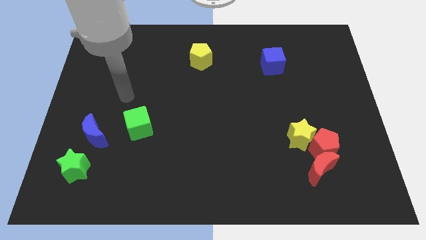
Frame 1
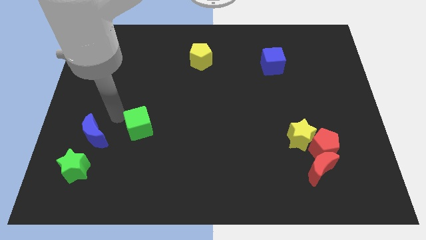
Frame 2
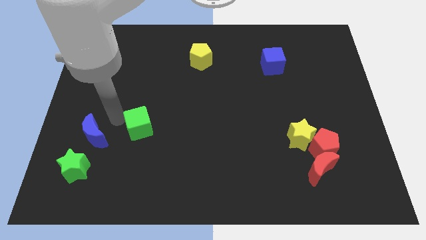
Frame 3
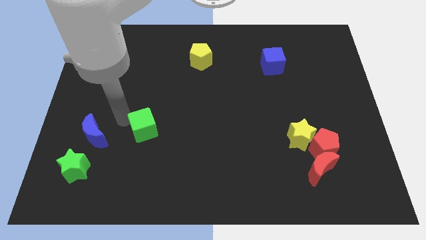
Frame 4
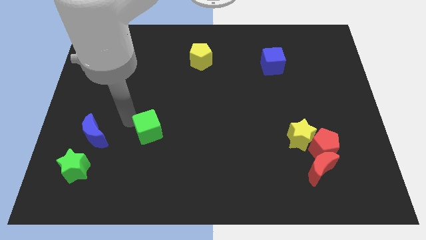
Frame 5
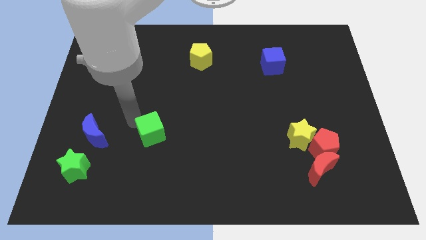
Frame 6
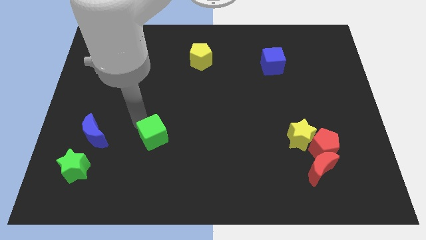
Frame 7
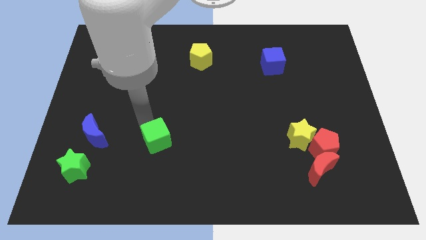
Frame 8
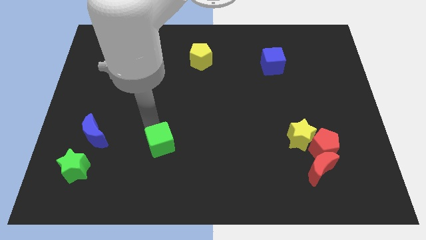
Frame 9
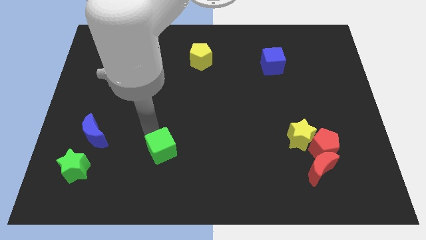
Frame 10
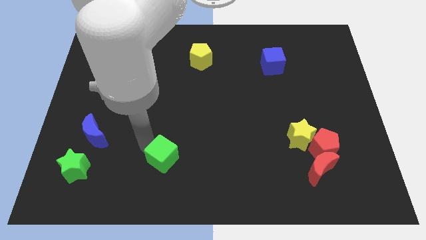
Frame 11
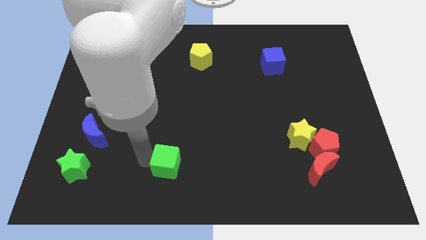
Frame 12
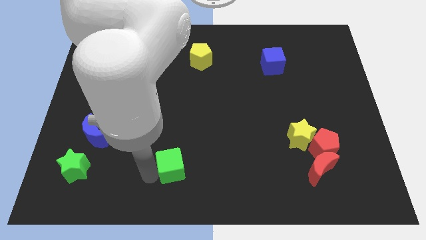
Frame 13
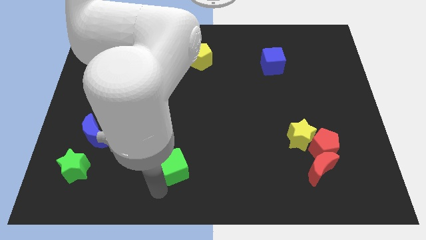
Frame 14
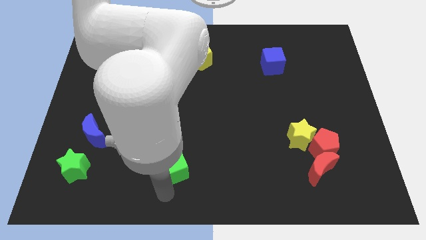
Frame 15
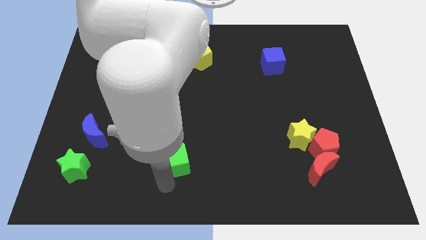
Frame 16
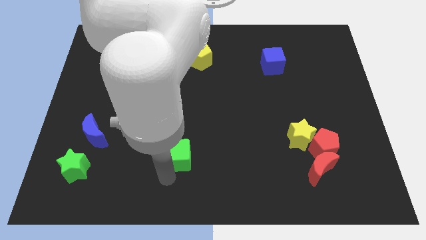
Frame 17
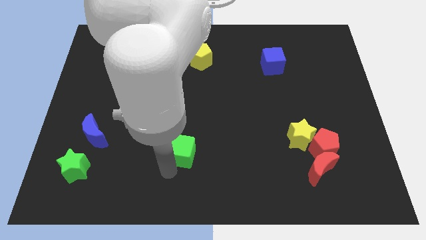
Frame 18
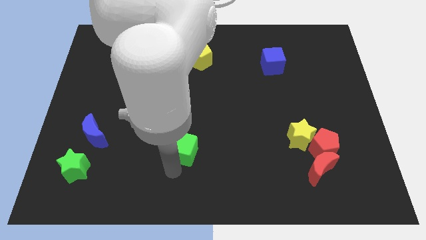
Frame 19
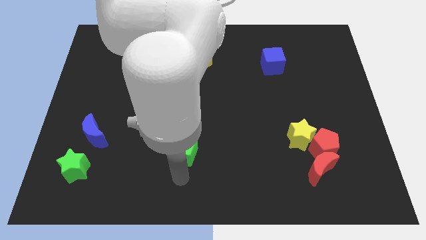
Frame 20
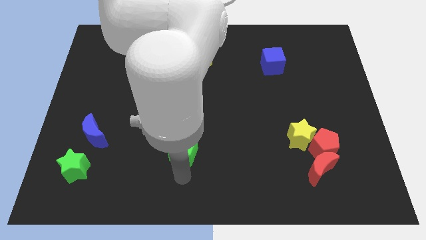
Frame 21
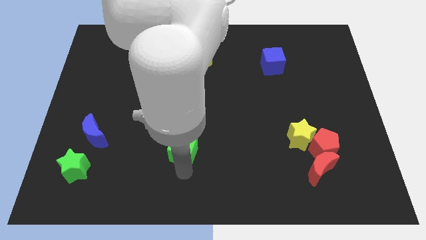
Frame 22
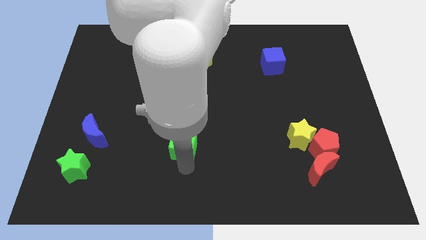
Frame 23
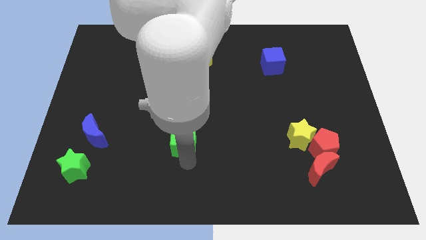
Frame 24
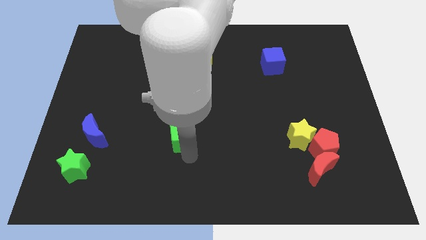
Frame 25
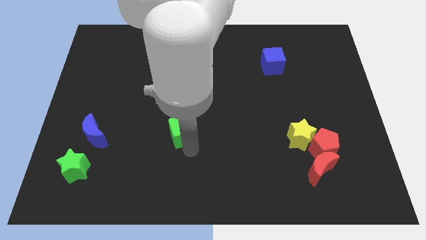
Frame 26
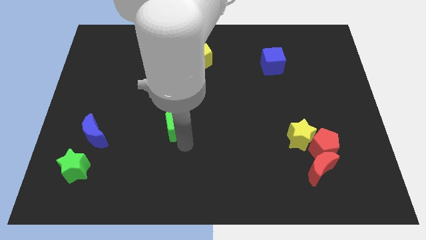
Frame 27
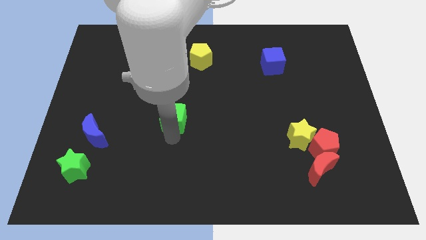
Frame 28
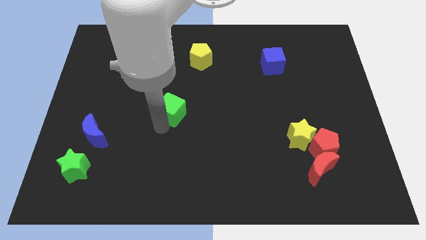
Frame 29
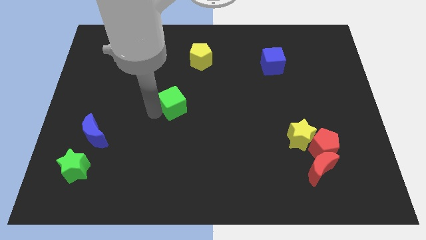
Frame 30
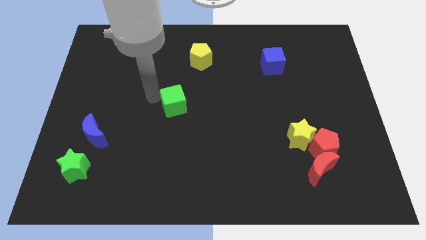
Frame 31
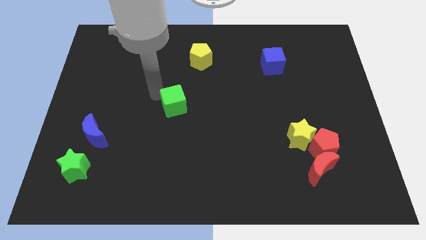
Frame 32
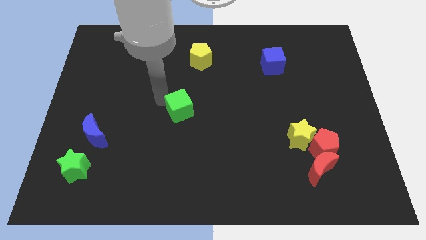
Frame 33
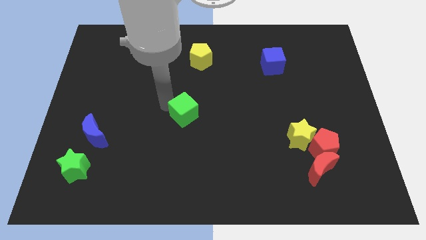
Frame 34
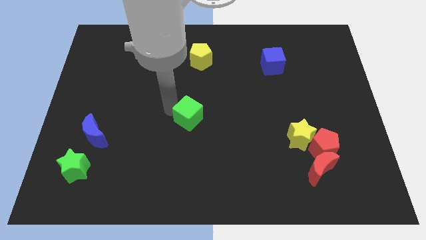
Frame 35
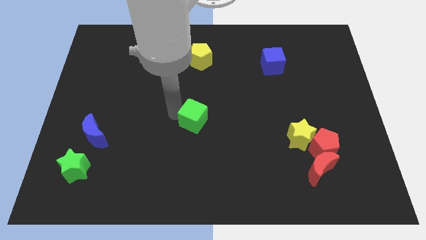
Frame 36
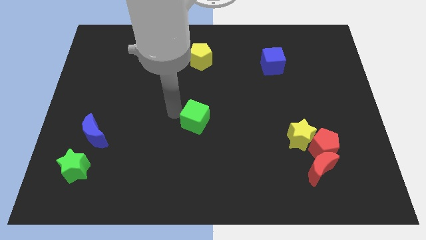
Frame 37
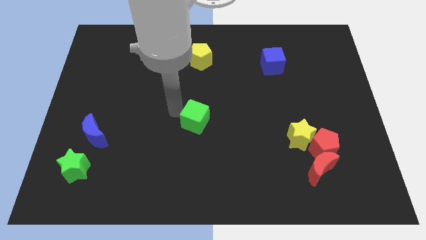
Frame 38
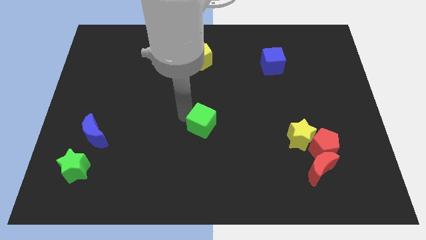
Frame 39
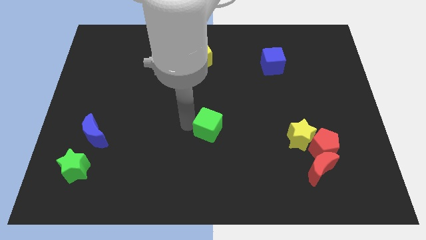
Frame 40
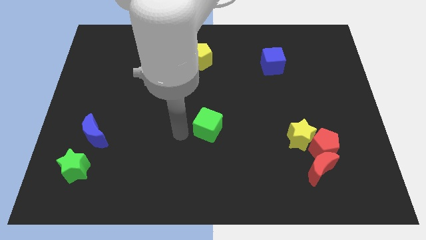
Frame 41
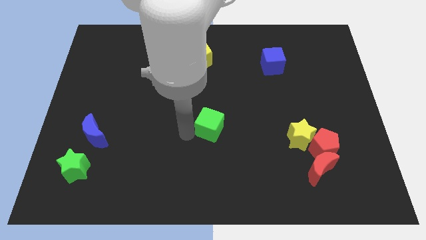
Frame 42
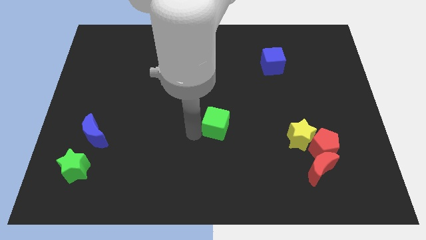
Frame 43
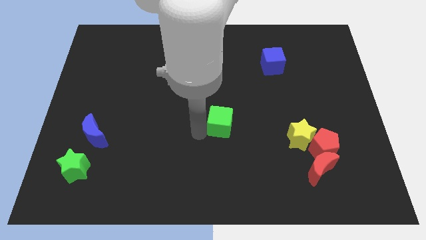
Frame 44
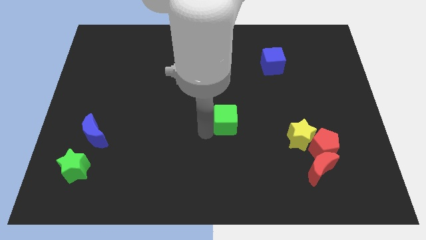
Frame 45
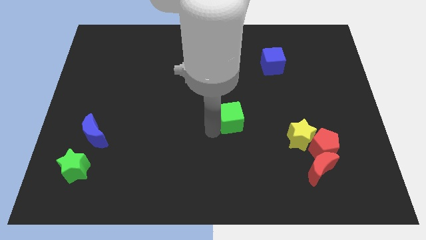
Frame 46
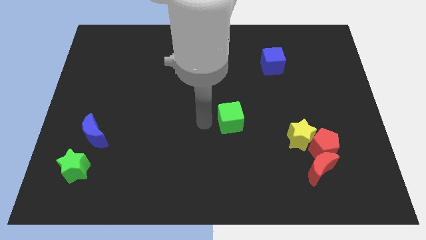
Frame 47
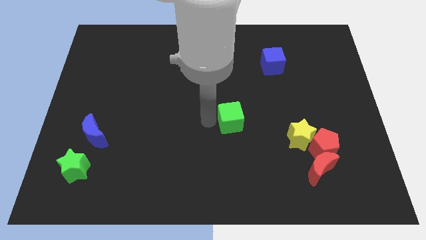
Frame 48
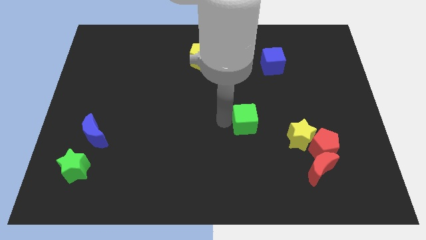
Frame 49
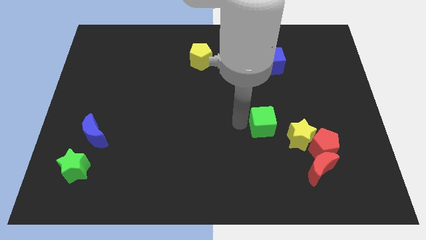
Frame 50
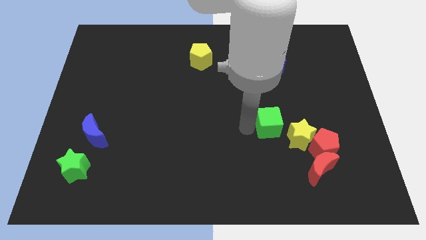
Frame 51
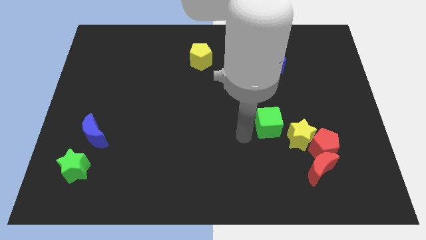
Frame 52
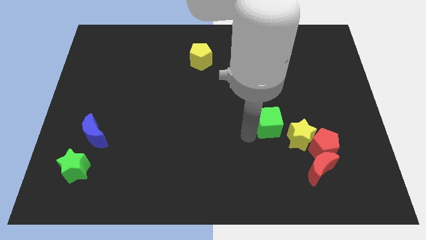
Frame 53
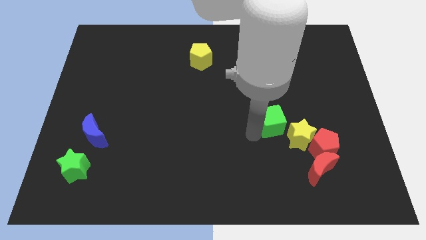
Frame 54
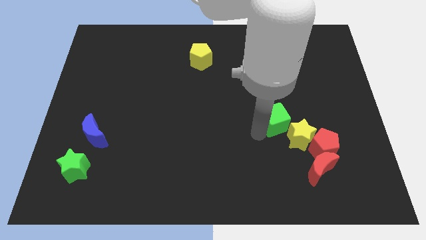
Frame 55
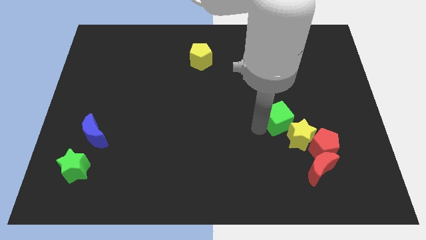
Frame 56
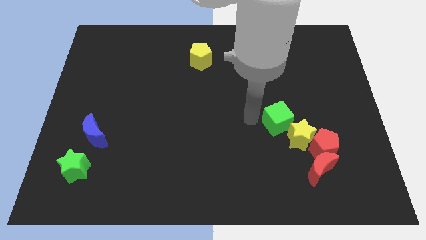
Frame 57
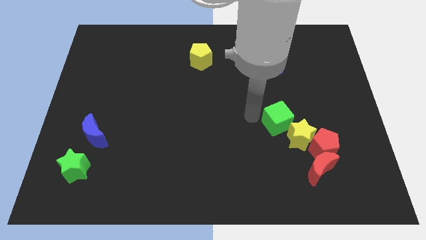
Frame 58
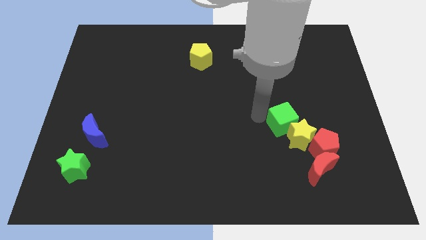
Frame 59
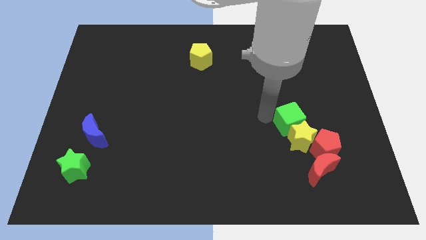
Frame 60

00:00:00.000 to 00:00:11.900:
put the green cube above the red moon

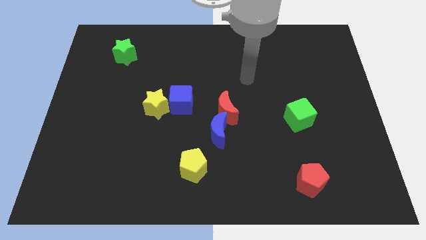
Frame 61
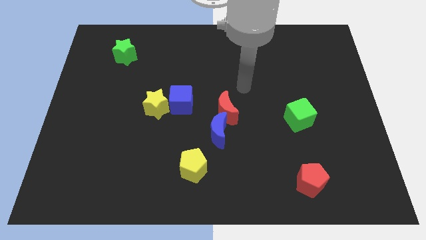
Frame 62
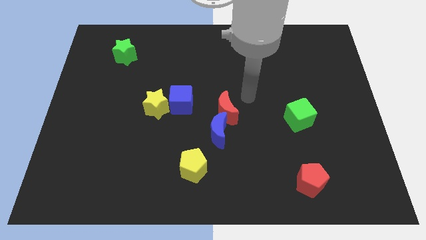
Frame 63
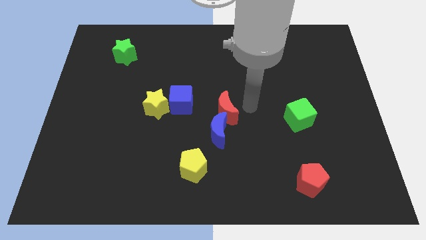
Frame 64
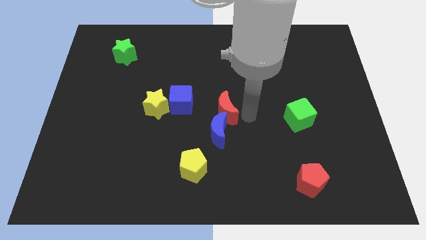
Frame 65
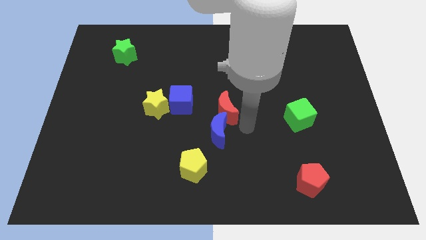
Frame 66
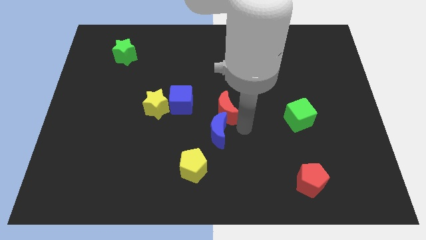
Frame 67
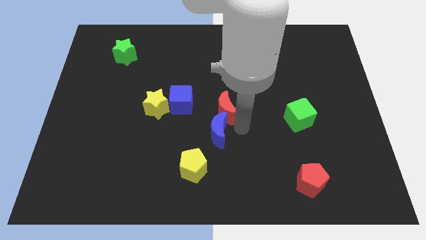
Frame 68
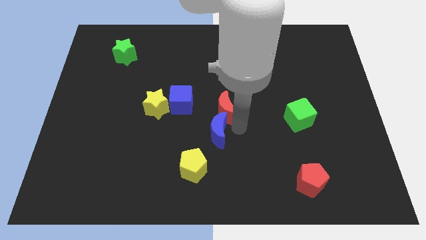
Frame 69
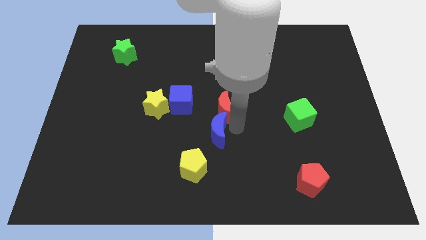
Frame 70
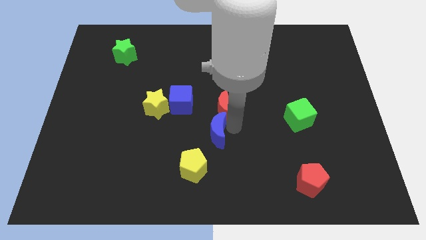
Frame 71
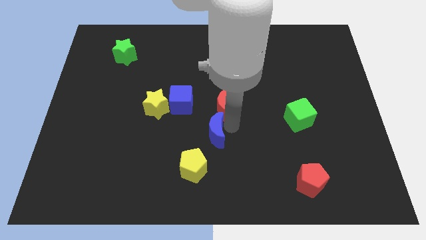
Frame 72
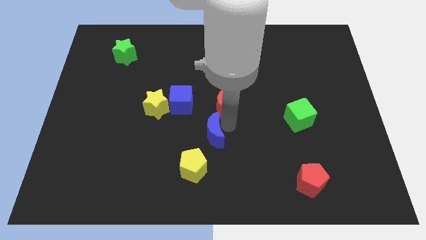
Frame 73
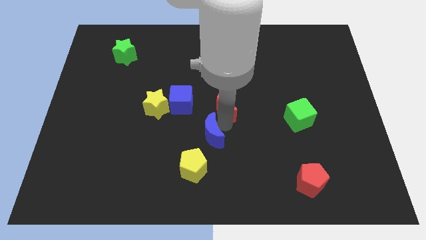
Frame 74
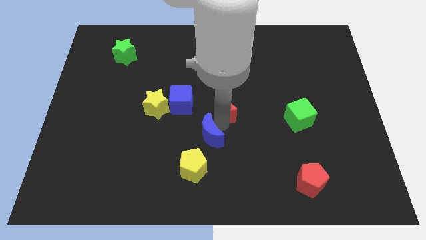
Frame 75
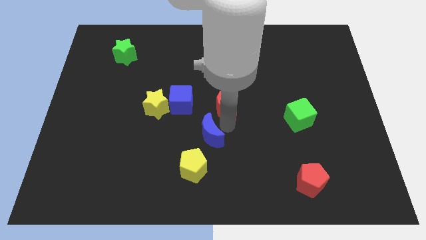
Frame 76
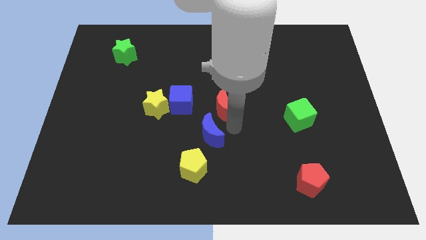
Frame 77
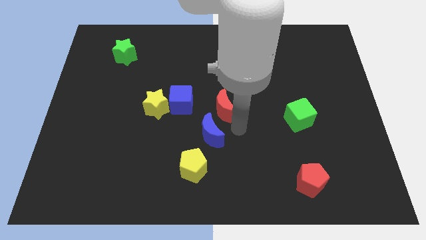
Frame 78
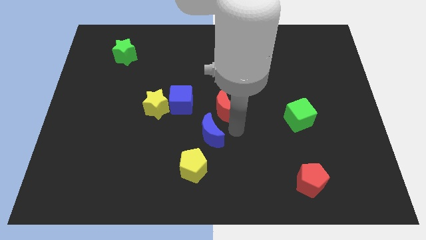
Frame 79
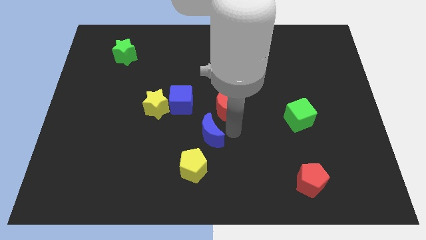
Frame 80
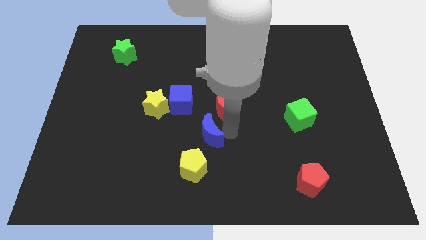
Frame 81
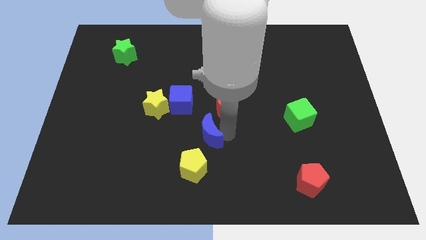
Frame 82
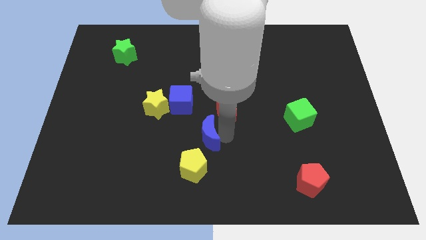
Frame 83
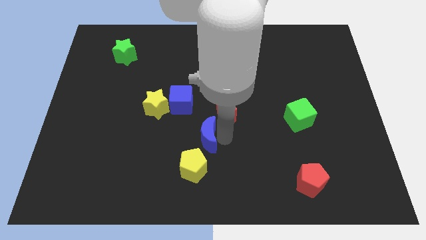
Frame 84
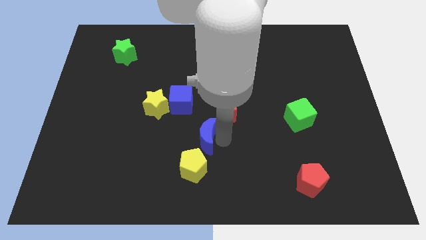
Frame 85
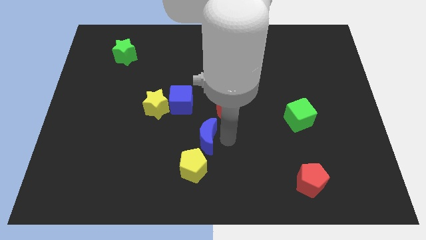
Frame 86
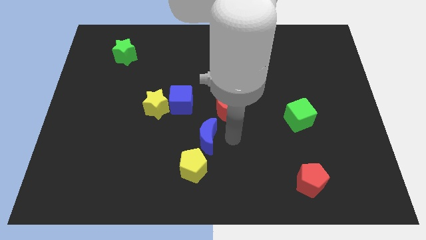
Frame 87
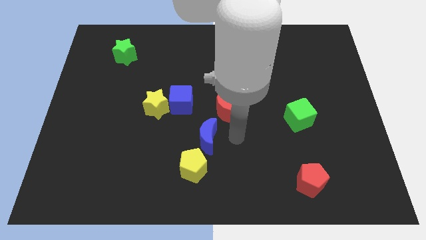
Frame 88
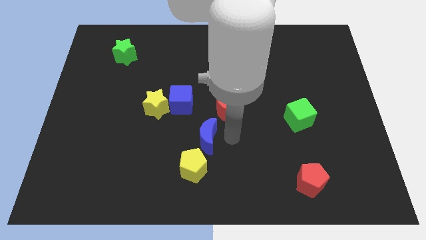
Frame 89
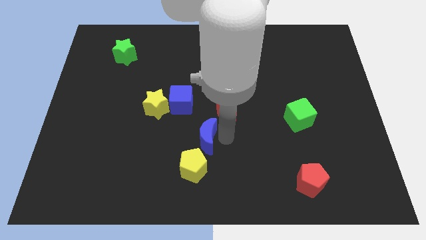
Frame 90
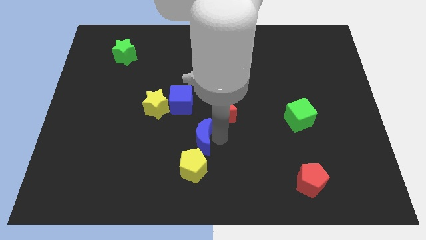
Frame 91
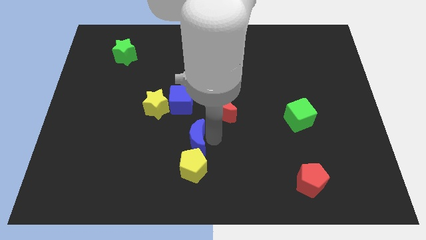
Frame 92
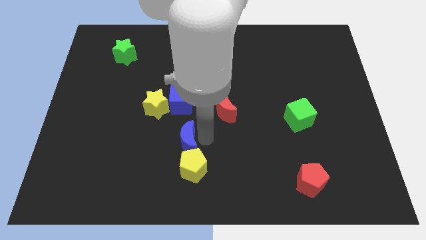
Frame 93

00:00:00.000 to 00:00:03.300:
slide the blue moon to the top left side of the yellow pentagon
